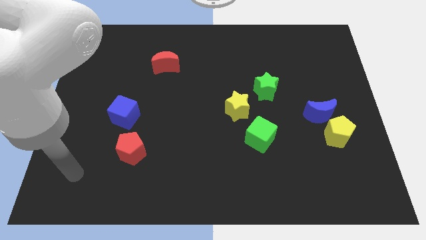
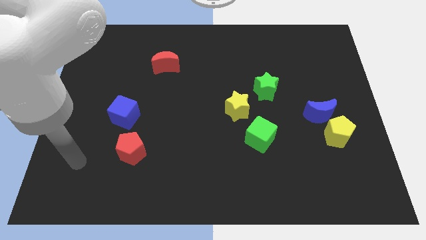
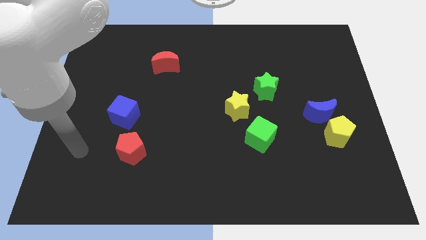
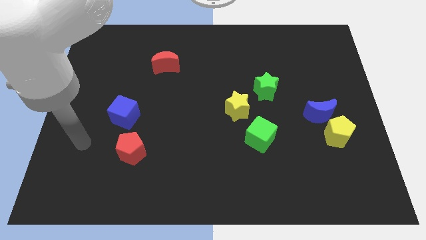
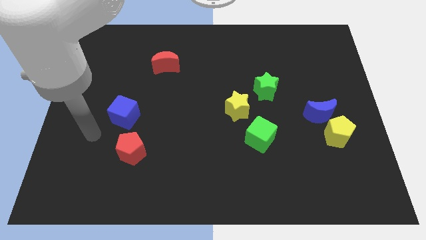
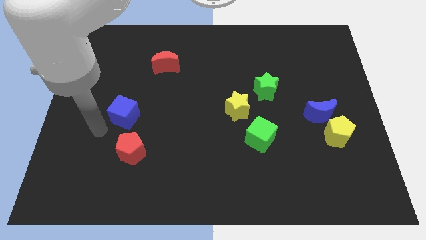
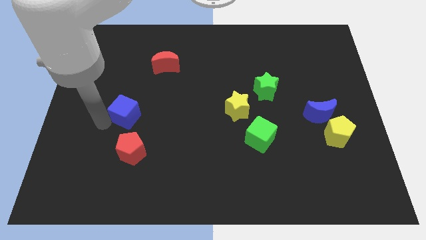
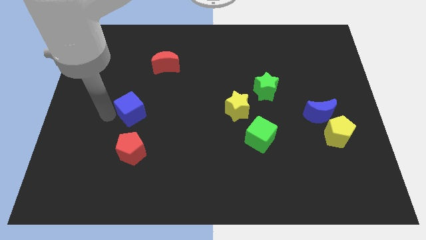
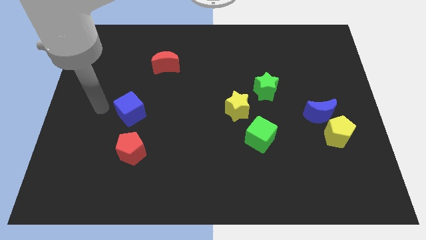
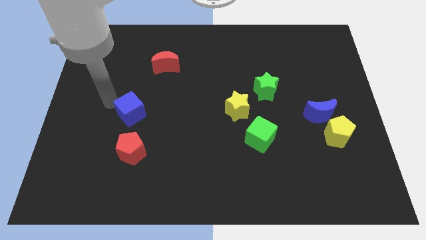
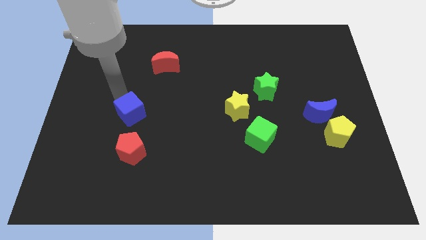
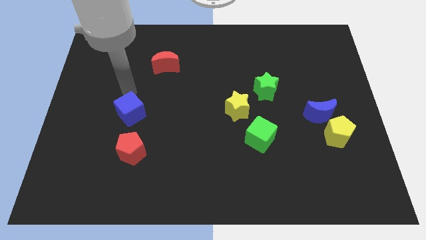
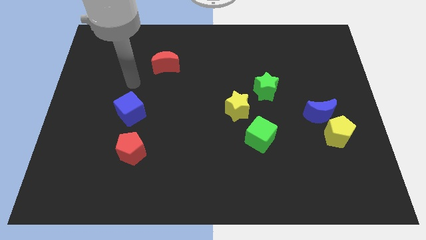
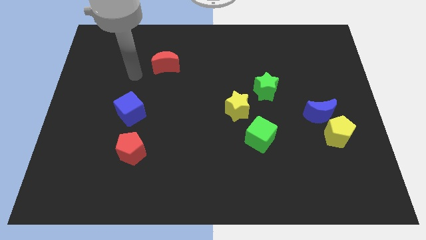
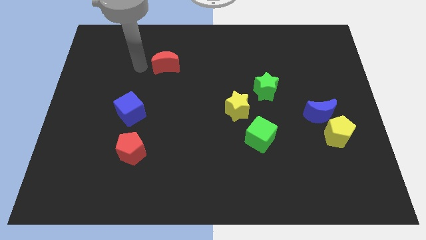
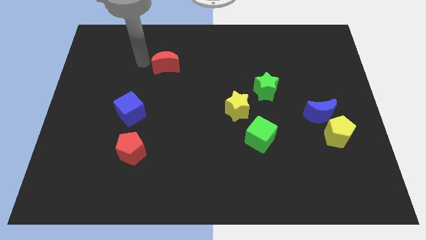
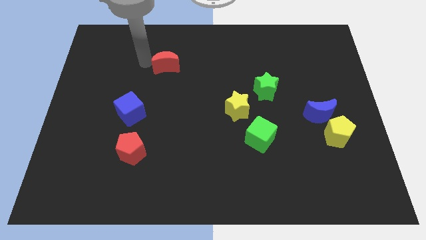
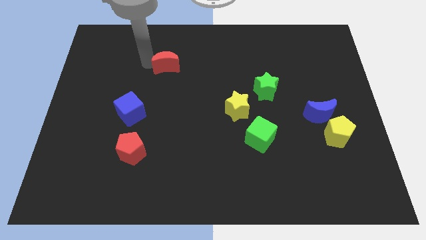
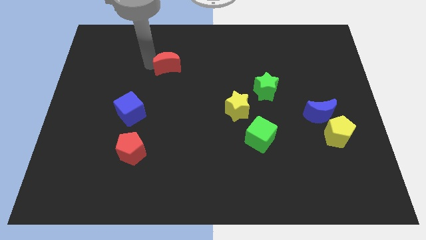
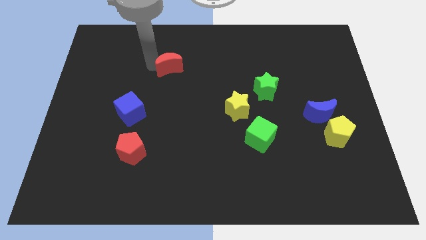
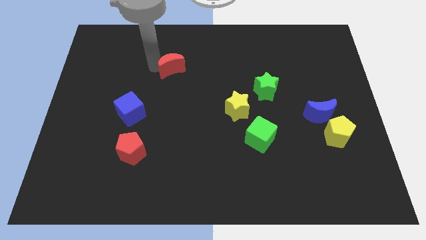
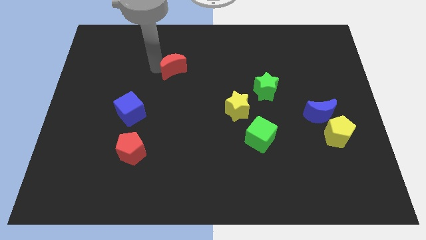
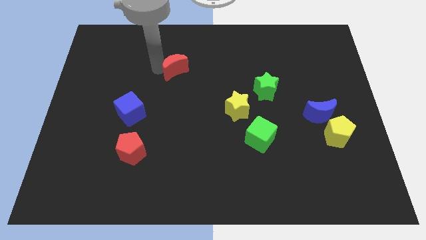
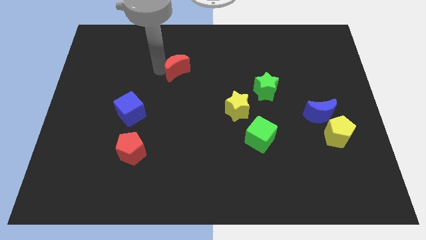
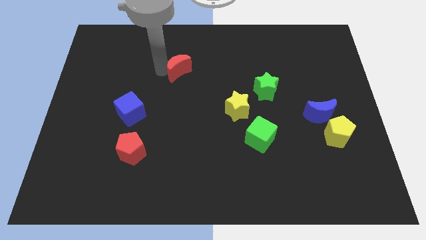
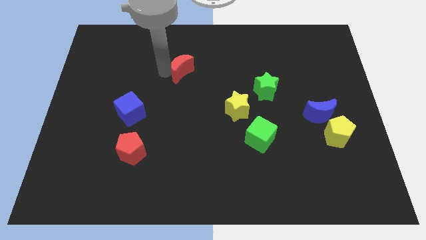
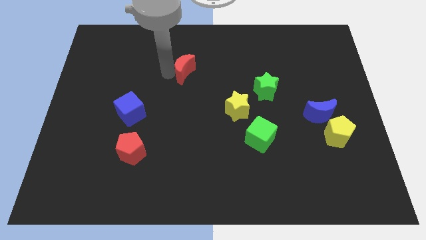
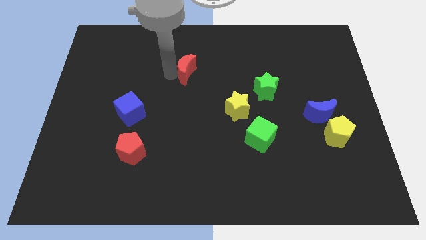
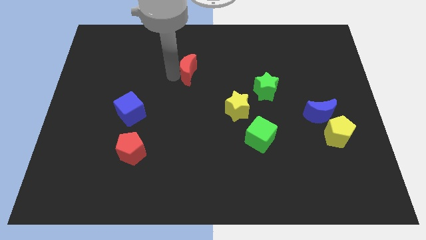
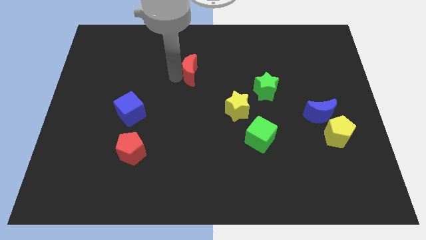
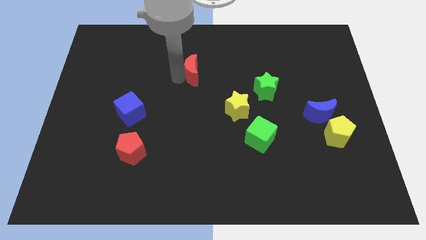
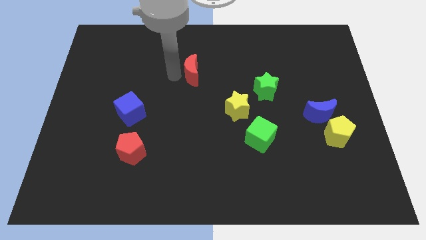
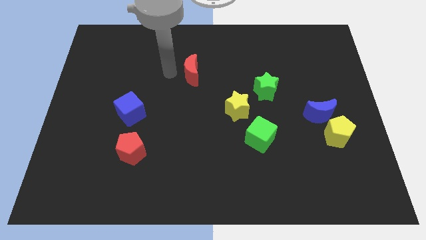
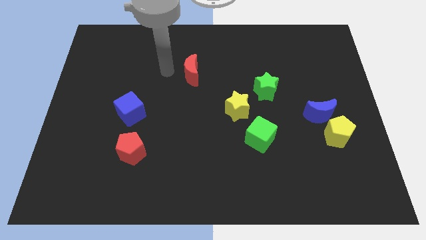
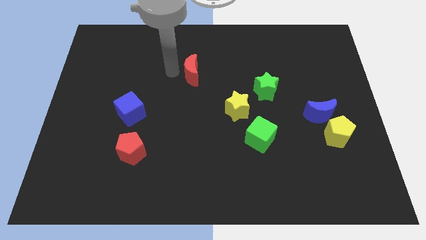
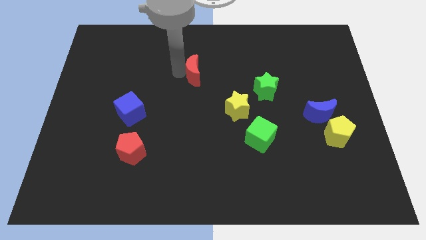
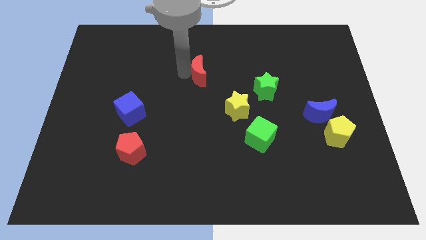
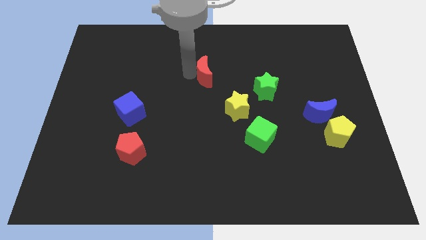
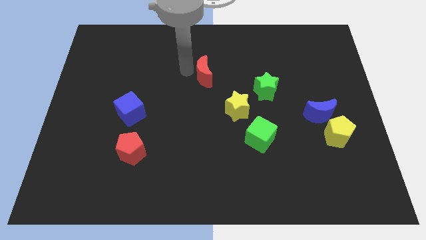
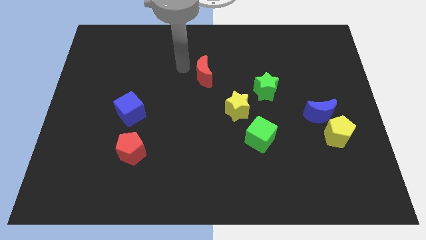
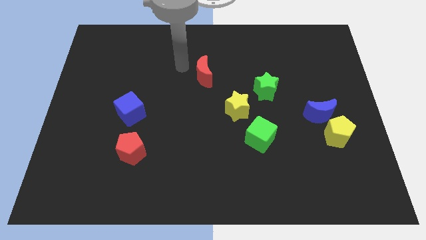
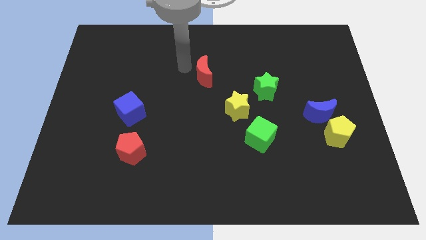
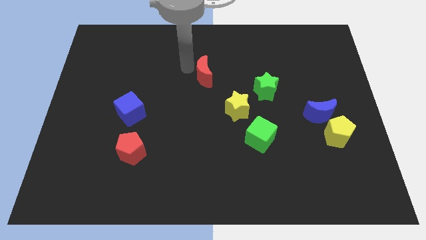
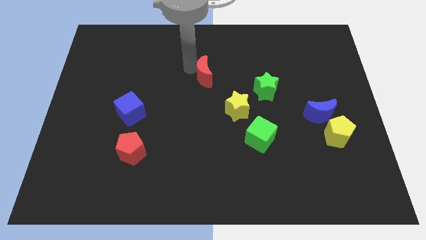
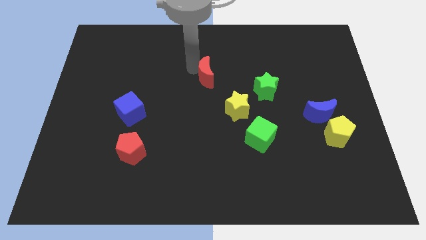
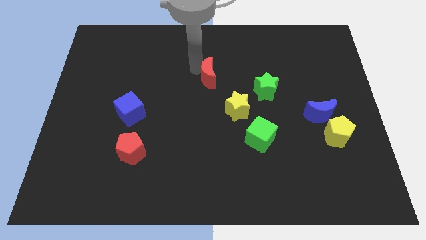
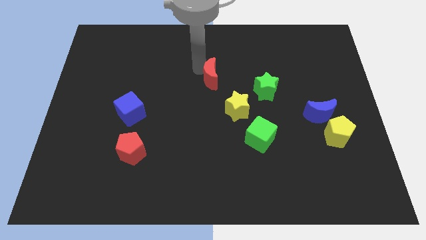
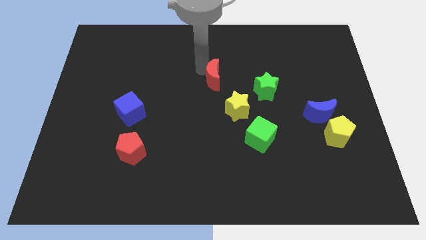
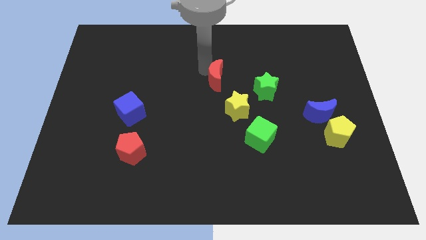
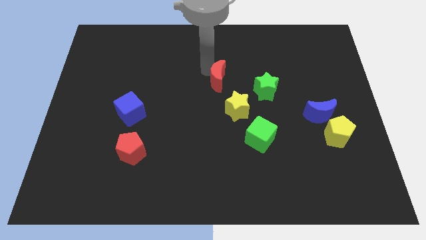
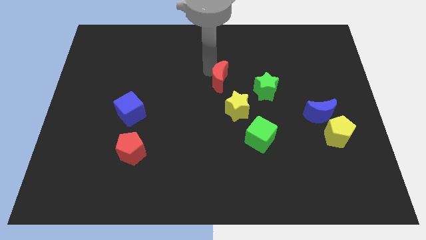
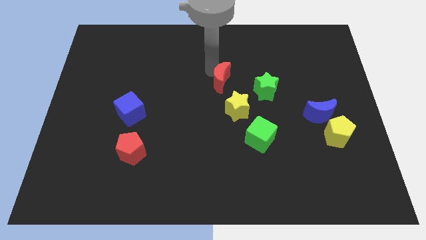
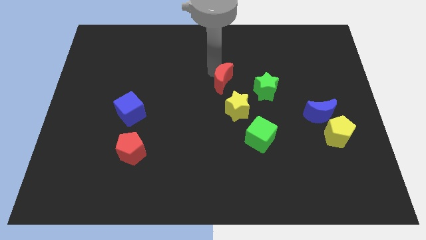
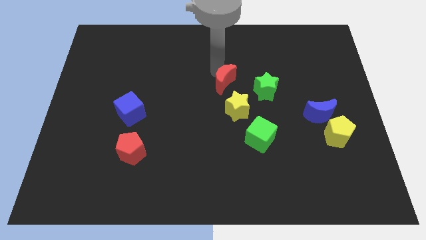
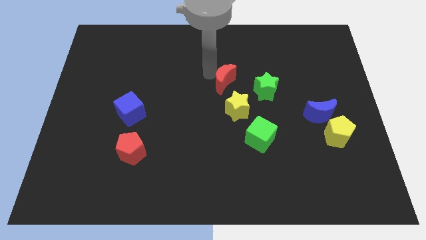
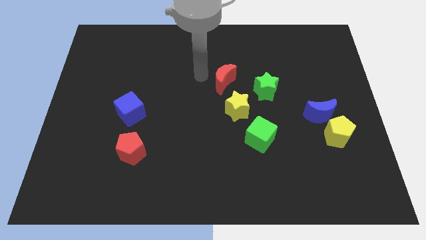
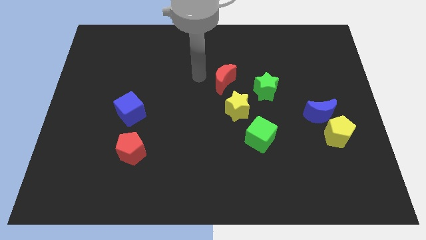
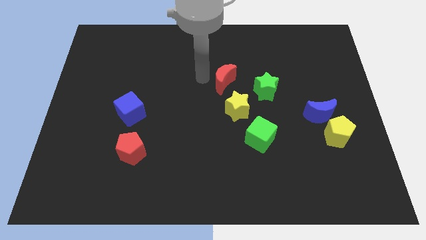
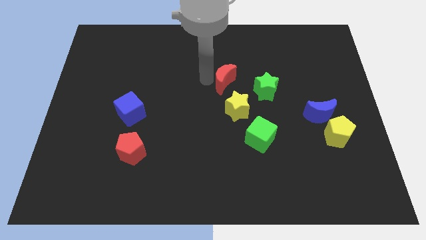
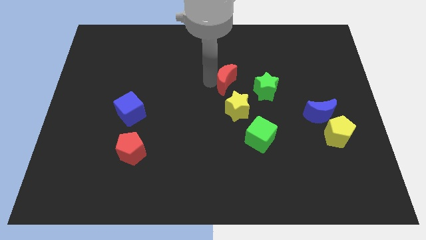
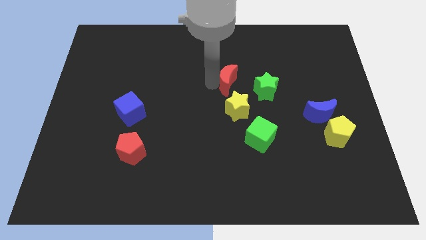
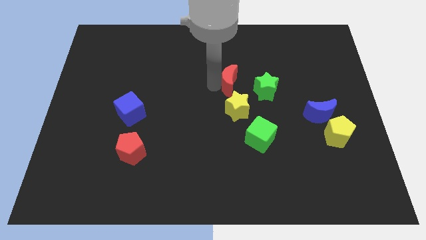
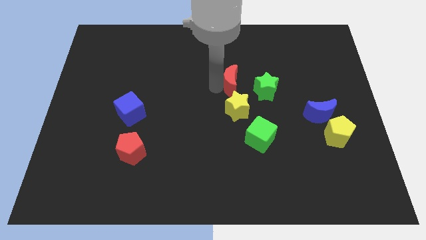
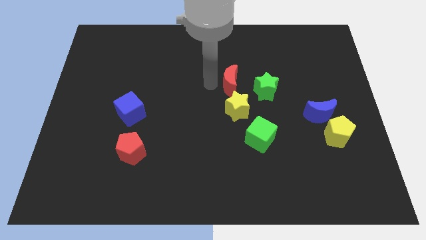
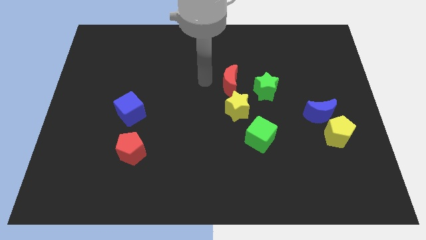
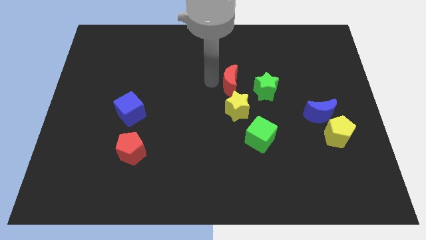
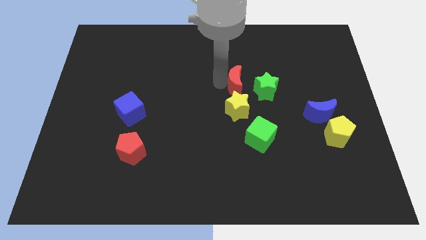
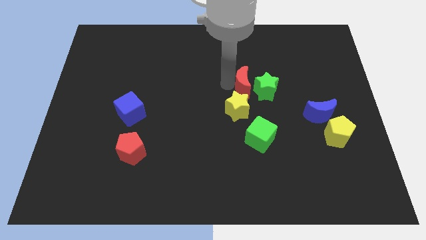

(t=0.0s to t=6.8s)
move the red moon next to the green star

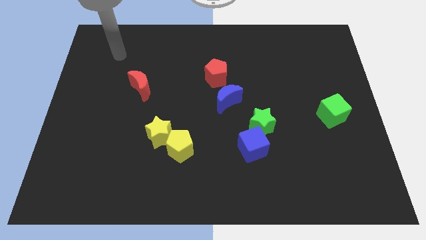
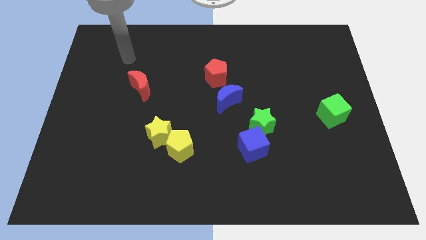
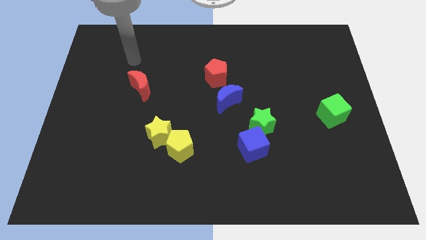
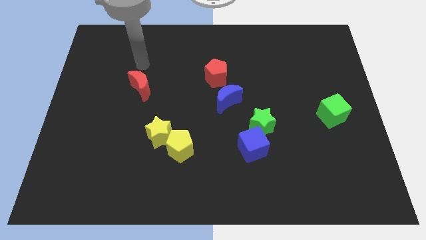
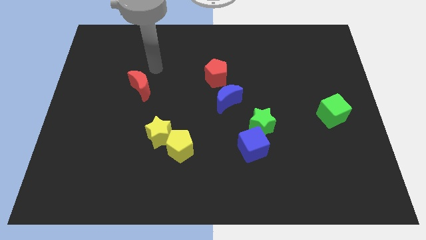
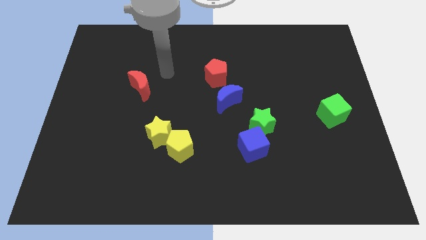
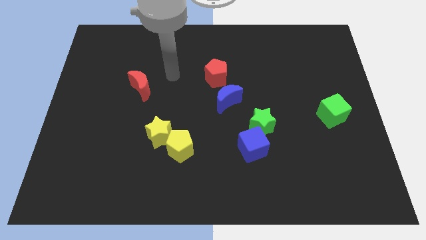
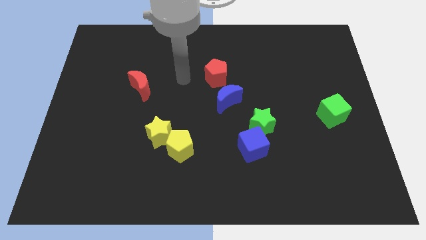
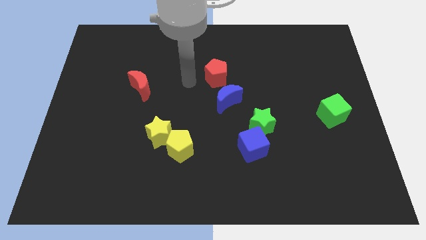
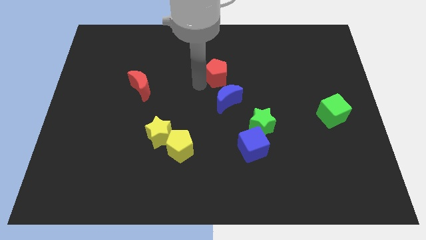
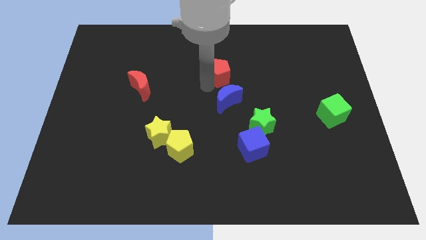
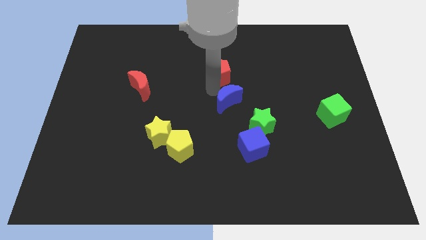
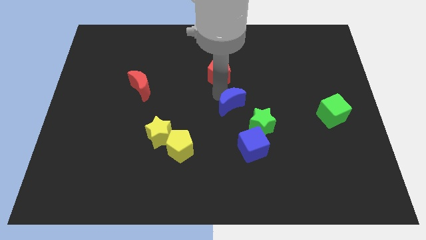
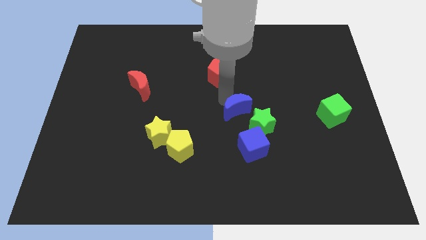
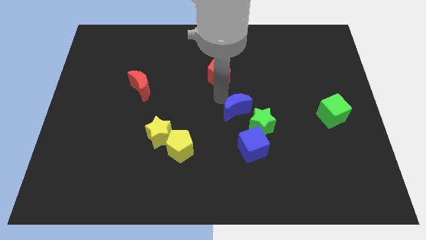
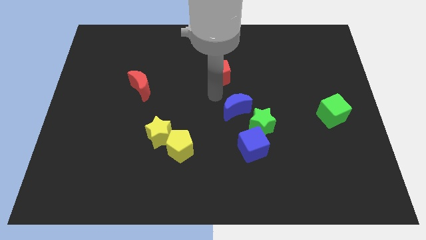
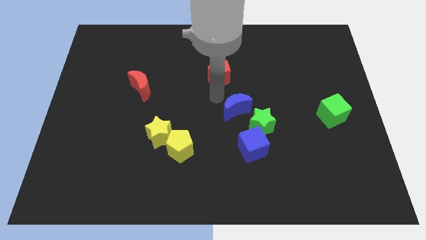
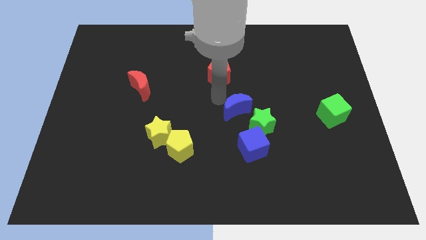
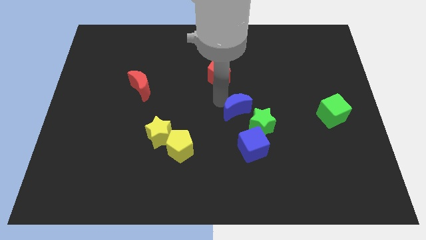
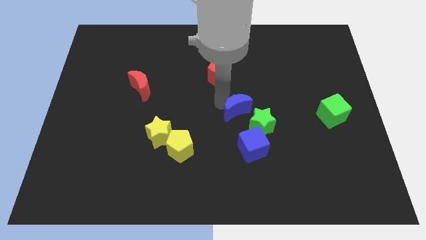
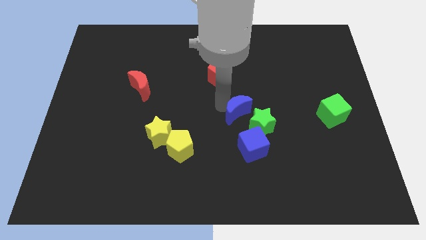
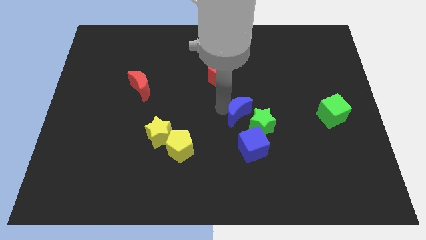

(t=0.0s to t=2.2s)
push the blue moon to the green star
